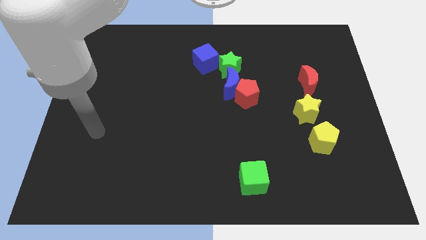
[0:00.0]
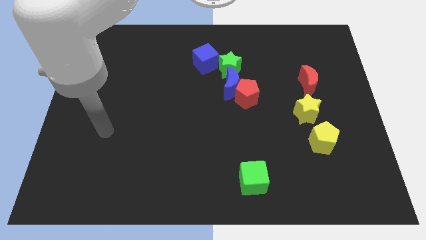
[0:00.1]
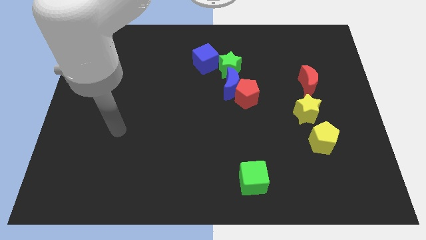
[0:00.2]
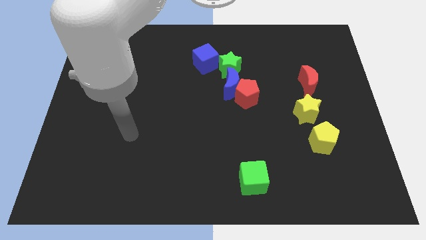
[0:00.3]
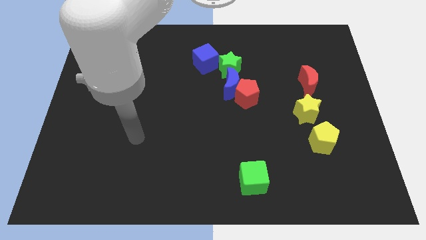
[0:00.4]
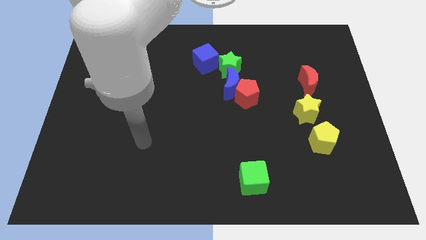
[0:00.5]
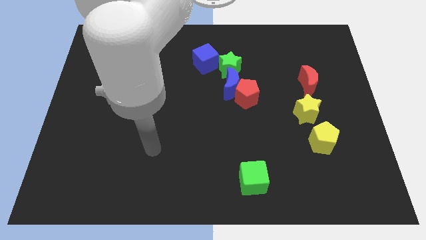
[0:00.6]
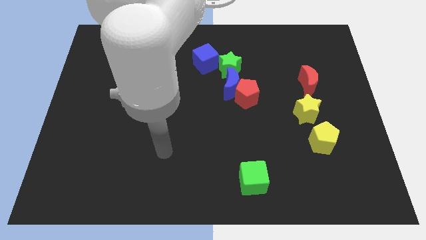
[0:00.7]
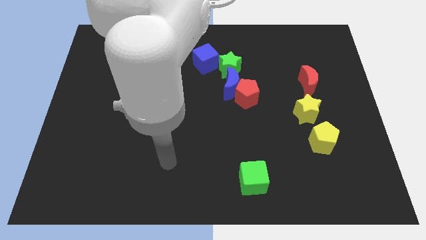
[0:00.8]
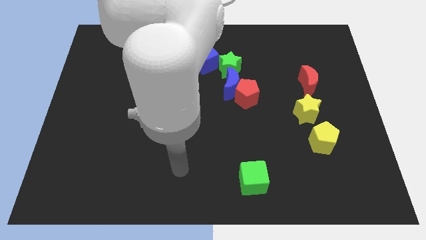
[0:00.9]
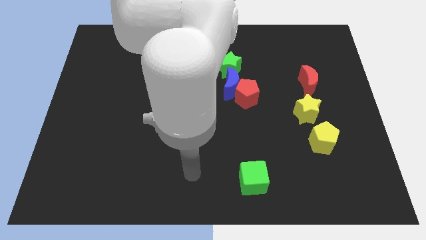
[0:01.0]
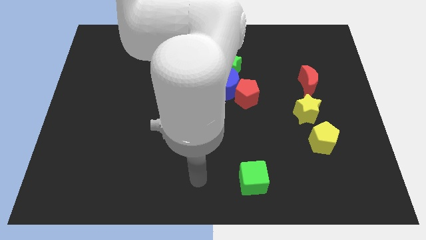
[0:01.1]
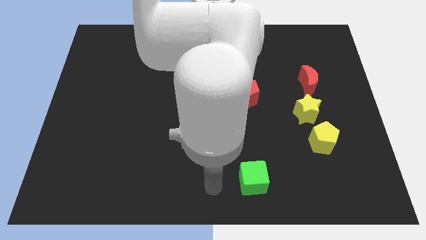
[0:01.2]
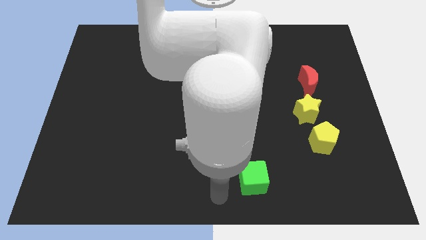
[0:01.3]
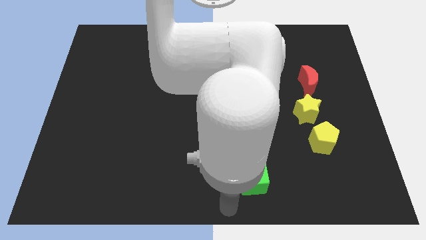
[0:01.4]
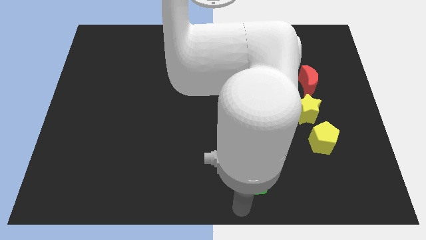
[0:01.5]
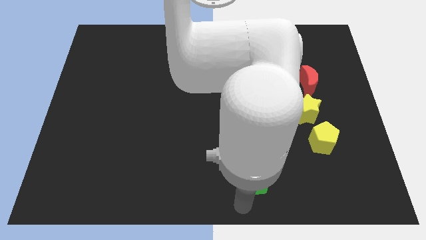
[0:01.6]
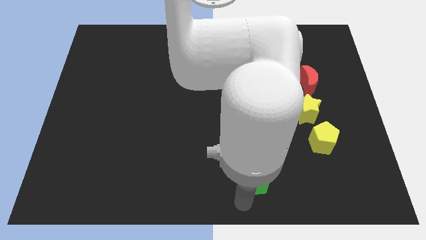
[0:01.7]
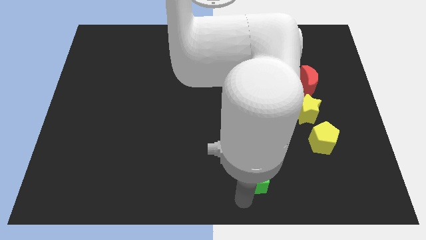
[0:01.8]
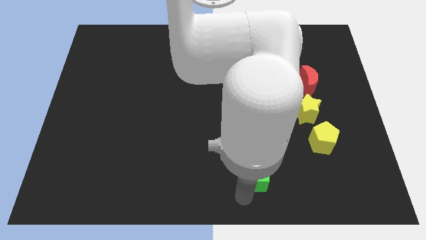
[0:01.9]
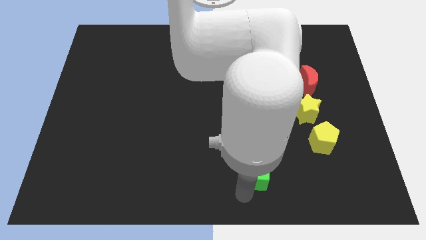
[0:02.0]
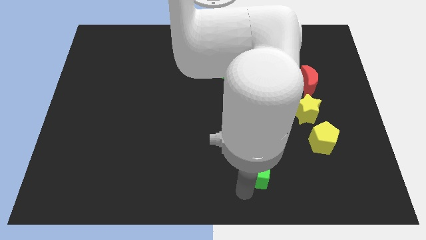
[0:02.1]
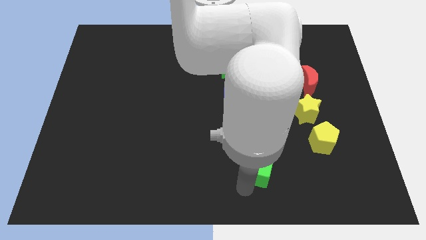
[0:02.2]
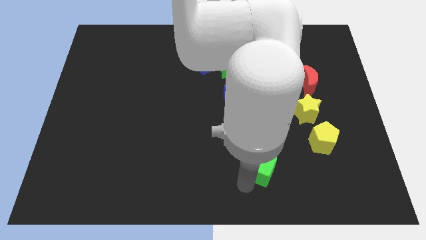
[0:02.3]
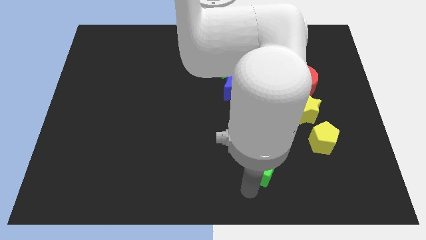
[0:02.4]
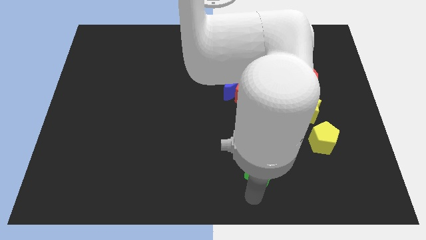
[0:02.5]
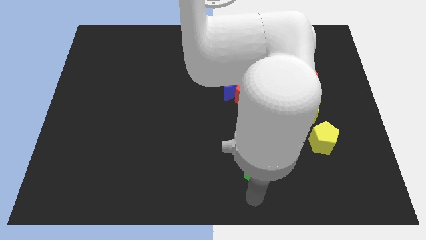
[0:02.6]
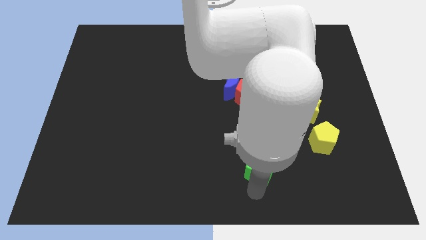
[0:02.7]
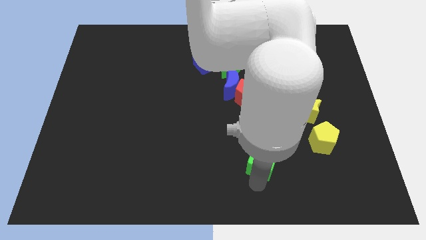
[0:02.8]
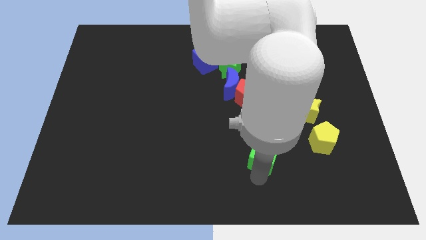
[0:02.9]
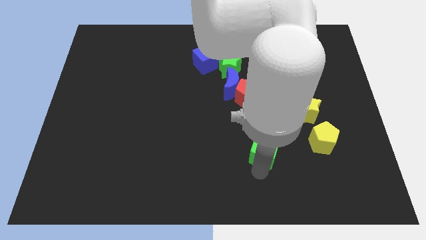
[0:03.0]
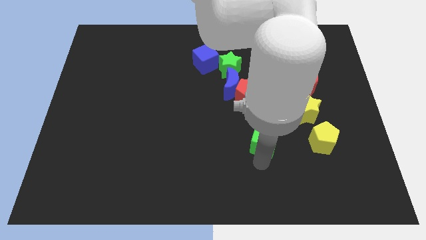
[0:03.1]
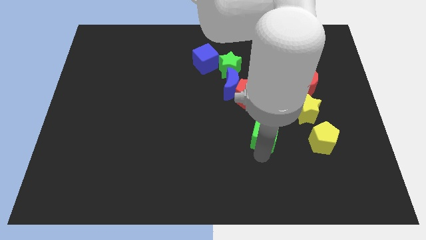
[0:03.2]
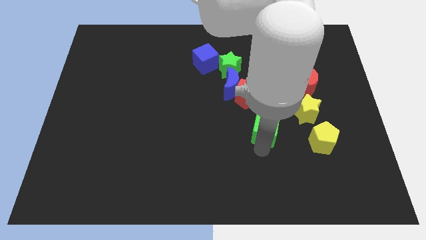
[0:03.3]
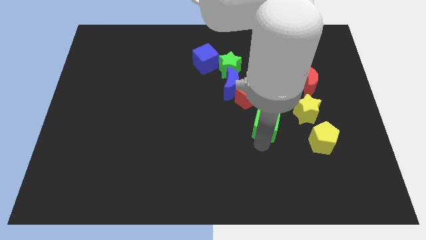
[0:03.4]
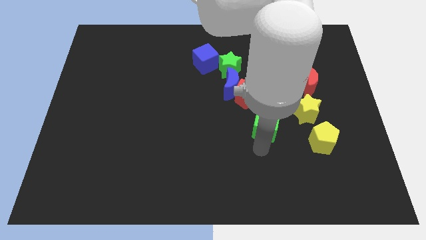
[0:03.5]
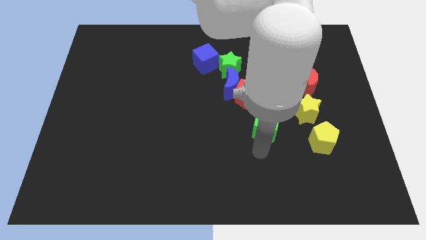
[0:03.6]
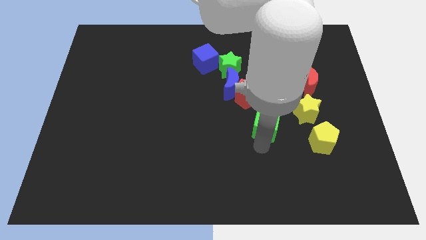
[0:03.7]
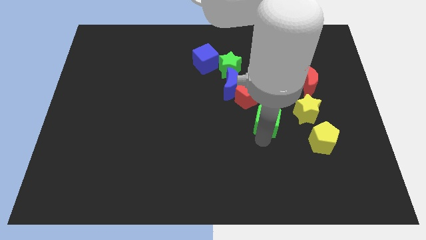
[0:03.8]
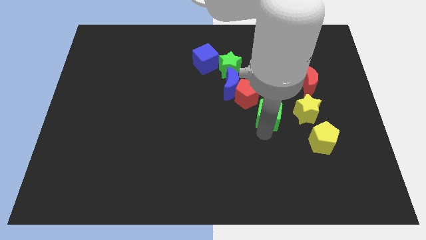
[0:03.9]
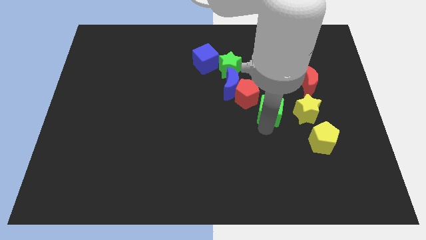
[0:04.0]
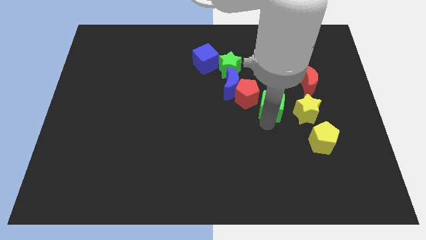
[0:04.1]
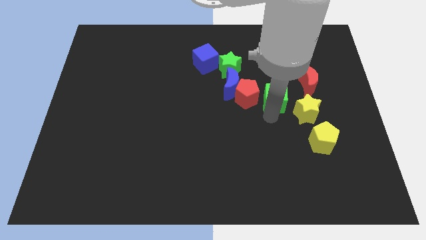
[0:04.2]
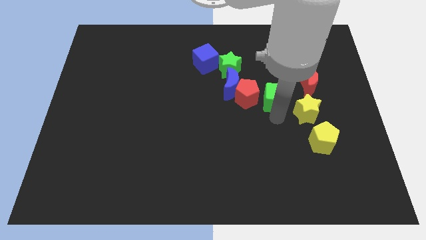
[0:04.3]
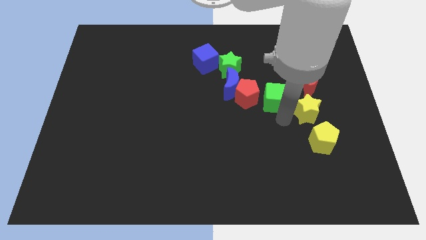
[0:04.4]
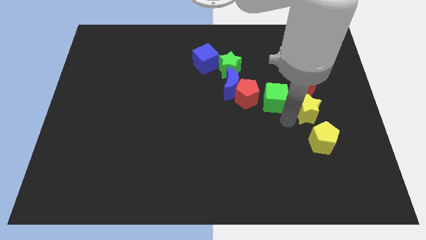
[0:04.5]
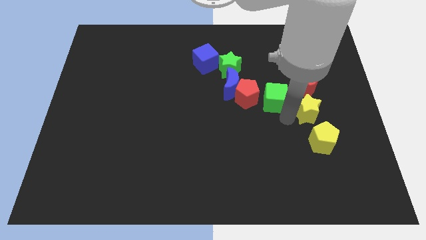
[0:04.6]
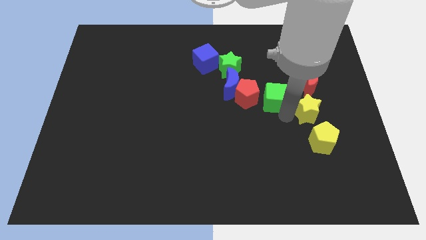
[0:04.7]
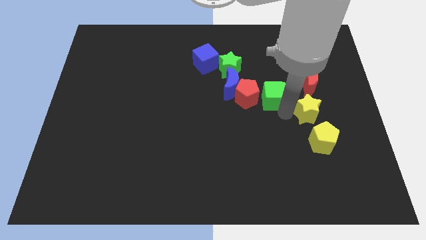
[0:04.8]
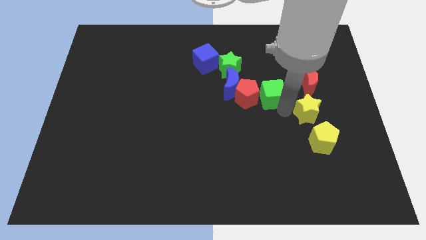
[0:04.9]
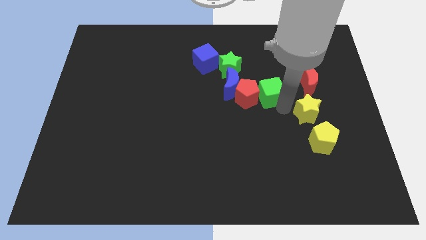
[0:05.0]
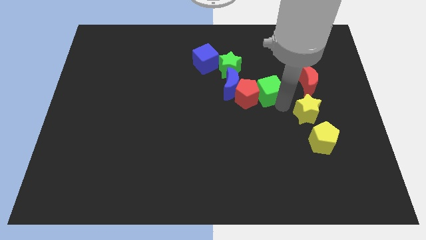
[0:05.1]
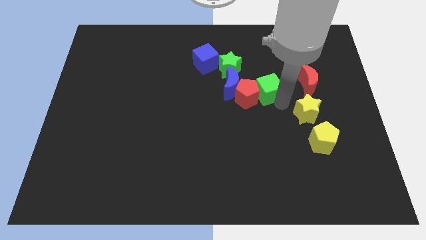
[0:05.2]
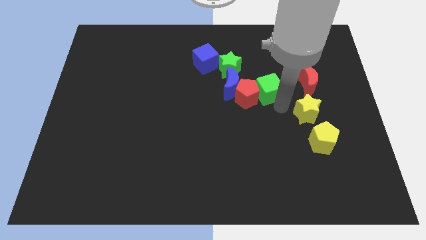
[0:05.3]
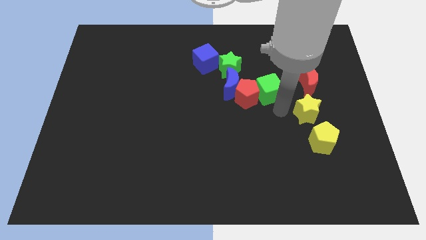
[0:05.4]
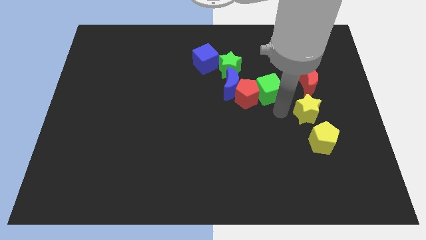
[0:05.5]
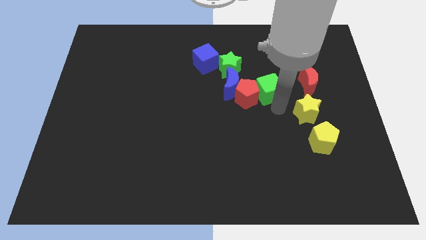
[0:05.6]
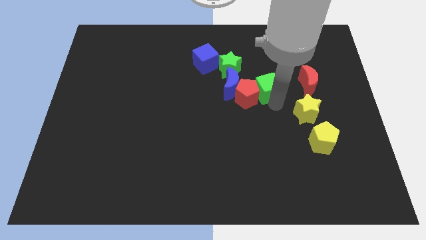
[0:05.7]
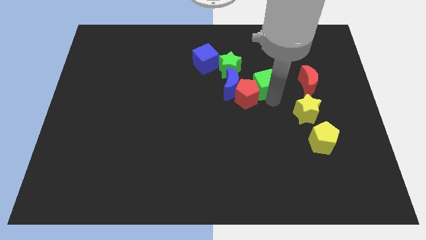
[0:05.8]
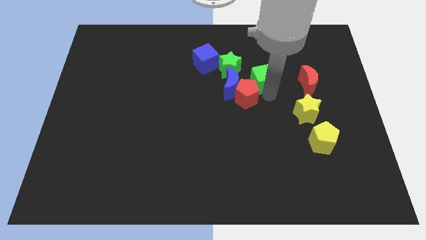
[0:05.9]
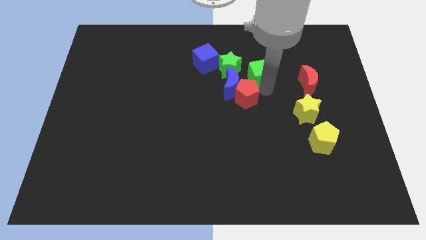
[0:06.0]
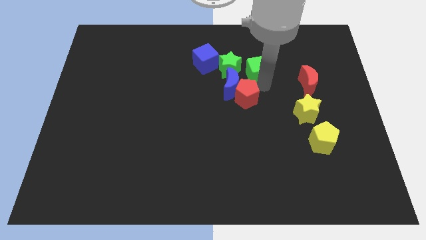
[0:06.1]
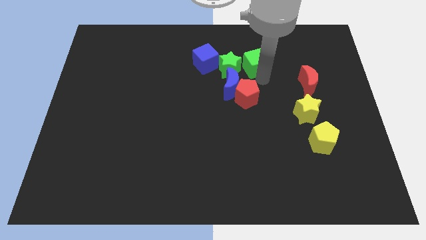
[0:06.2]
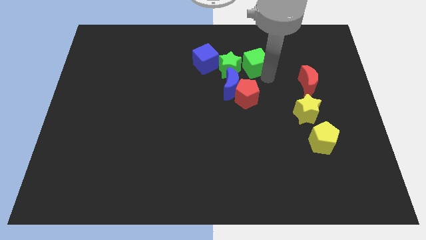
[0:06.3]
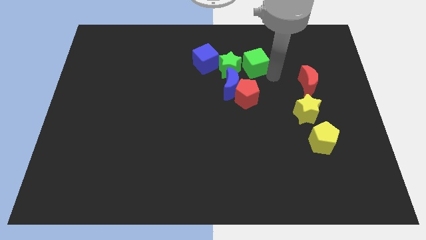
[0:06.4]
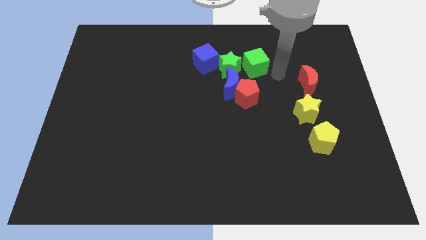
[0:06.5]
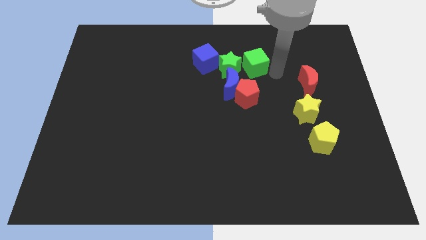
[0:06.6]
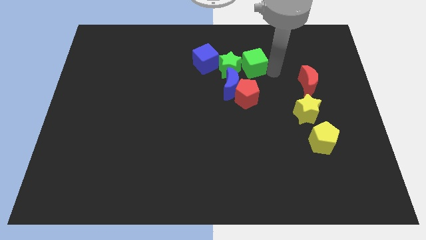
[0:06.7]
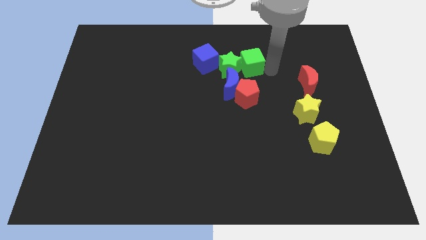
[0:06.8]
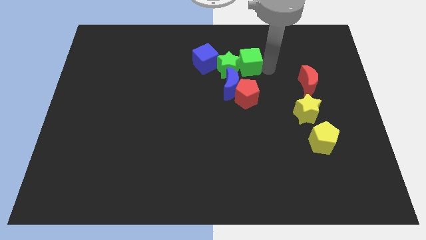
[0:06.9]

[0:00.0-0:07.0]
put the green cube to the top of the blue moon
